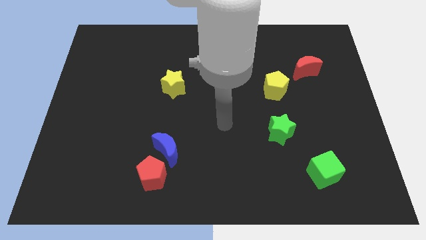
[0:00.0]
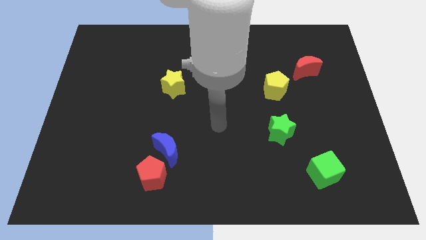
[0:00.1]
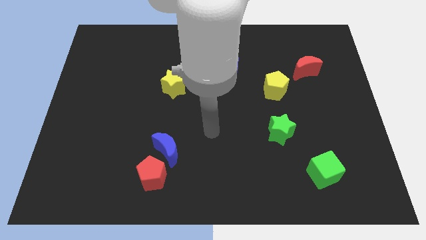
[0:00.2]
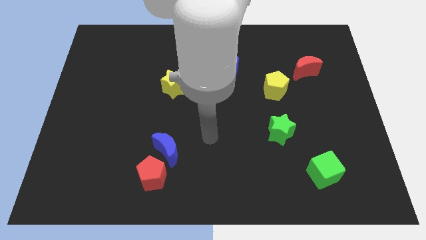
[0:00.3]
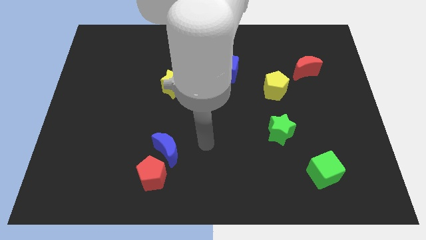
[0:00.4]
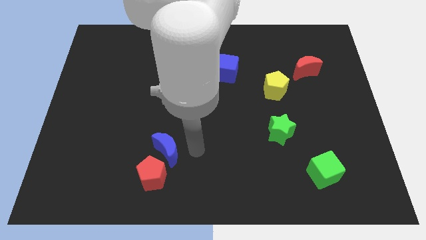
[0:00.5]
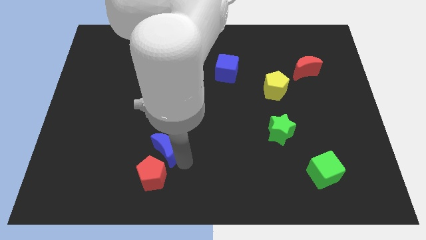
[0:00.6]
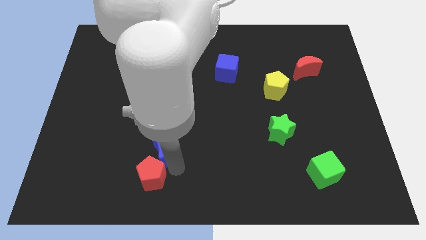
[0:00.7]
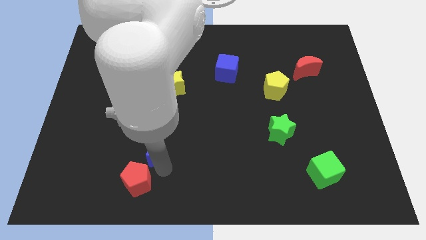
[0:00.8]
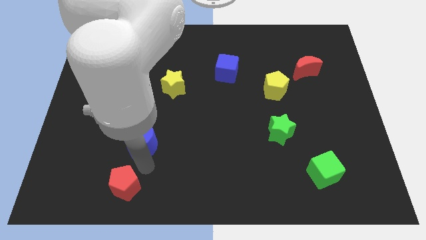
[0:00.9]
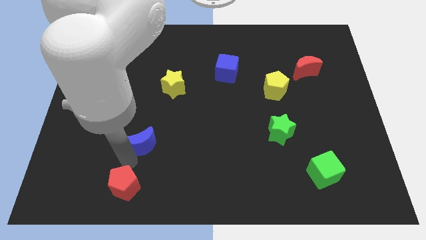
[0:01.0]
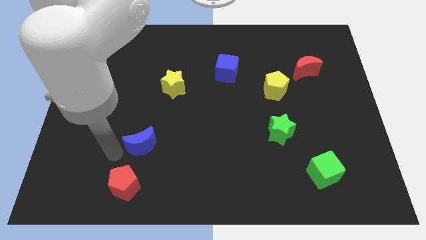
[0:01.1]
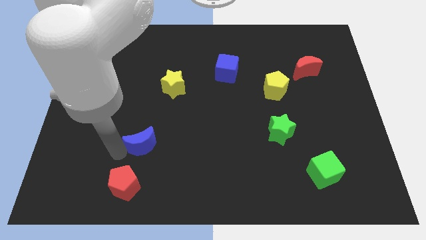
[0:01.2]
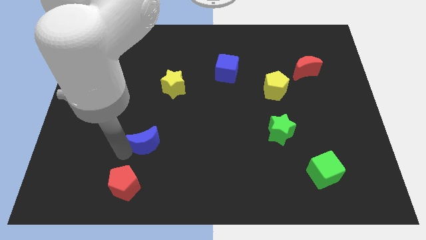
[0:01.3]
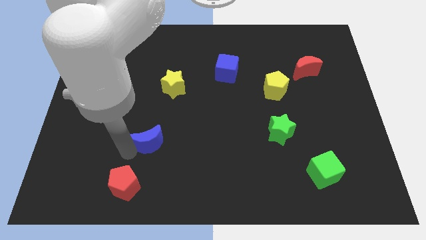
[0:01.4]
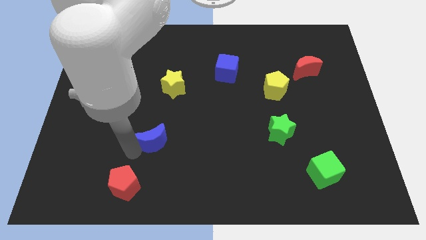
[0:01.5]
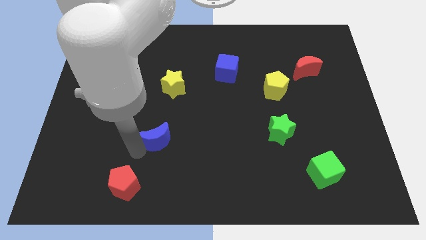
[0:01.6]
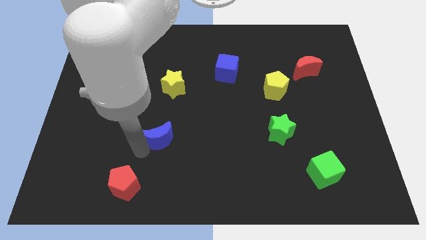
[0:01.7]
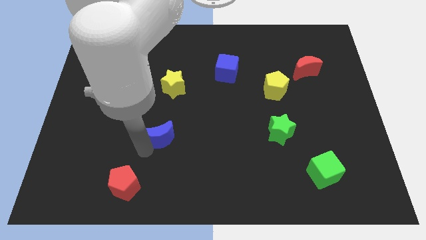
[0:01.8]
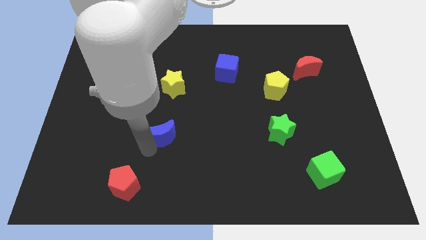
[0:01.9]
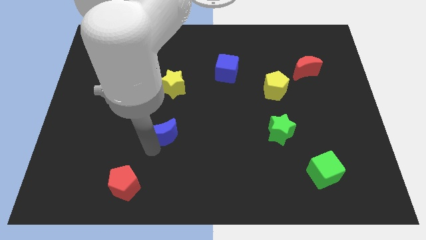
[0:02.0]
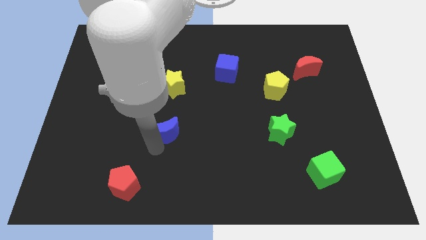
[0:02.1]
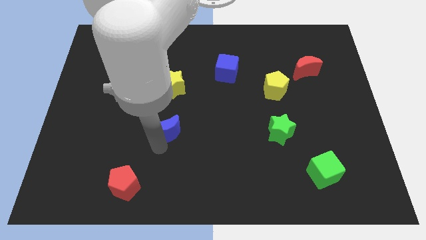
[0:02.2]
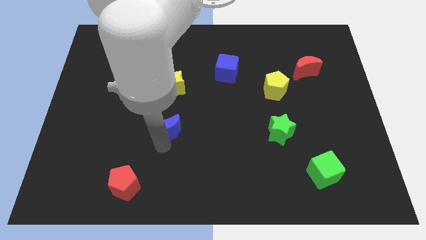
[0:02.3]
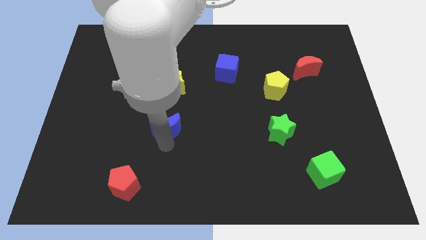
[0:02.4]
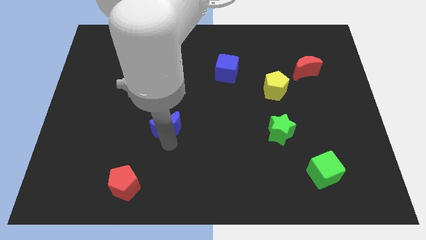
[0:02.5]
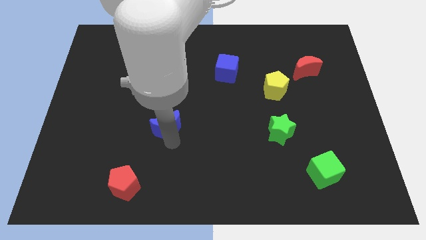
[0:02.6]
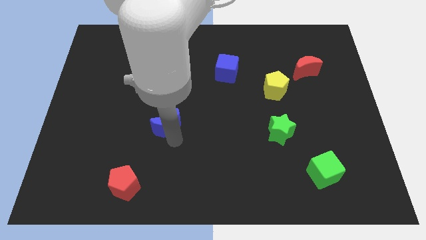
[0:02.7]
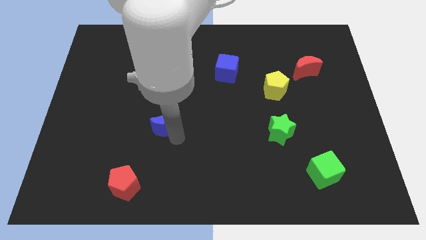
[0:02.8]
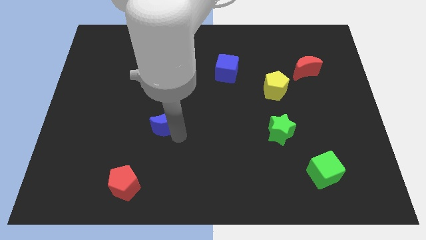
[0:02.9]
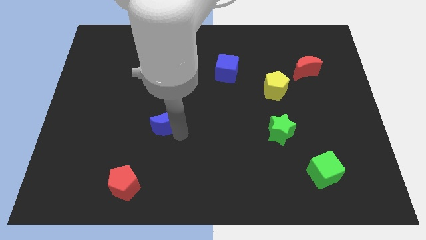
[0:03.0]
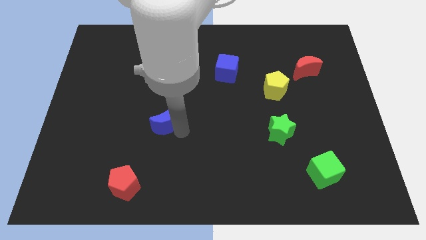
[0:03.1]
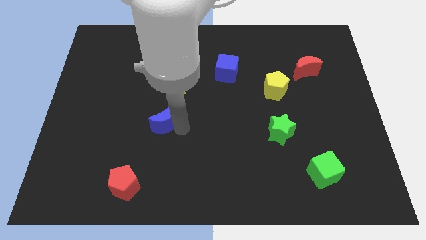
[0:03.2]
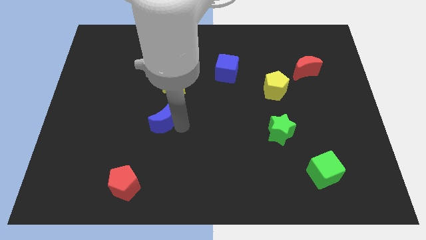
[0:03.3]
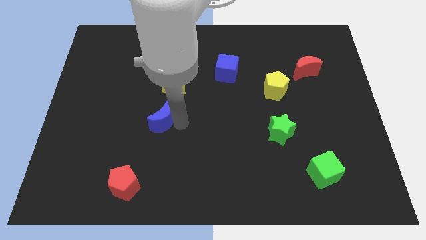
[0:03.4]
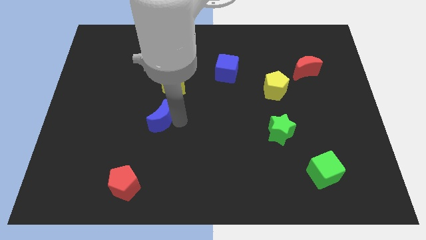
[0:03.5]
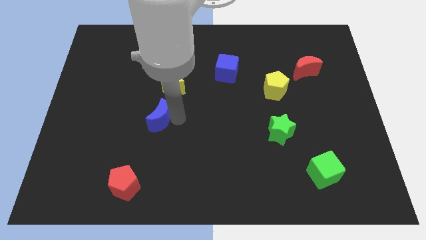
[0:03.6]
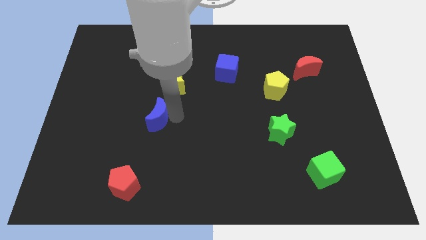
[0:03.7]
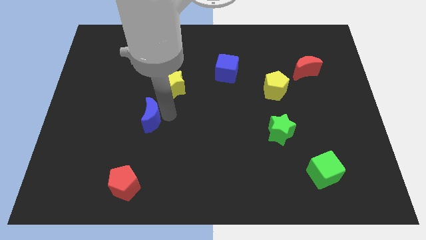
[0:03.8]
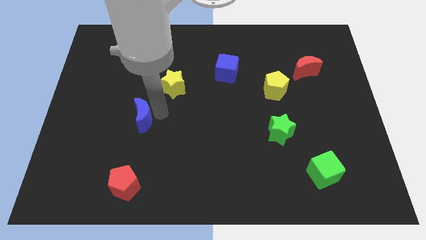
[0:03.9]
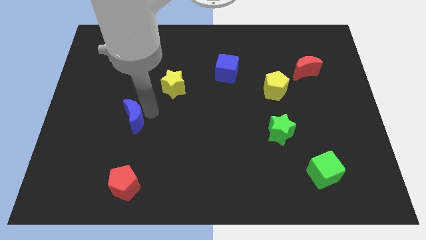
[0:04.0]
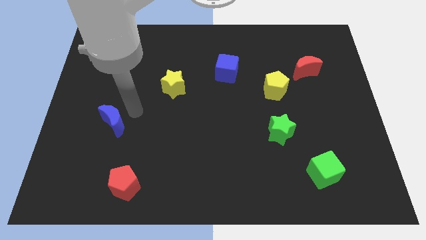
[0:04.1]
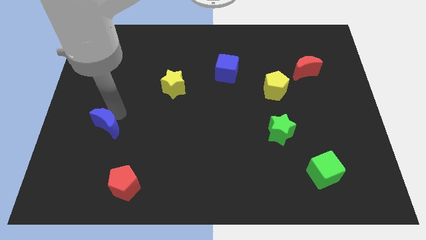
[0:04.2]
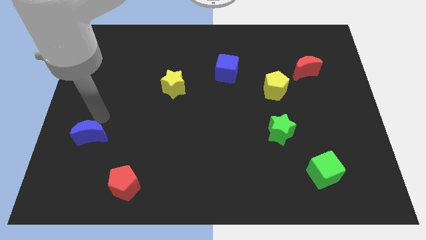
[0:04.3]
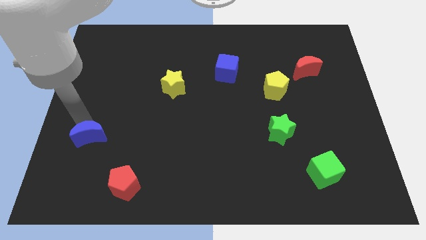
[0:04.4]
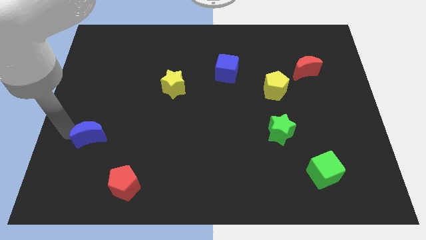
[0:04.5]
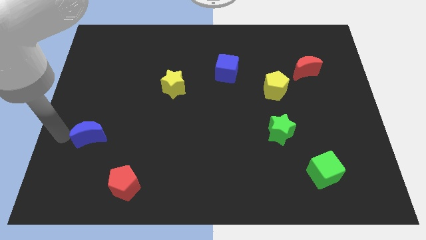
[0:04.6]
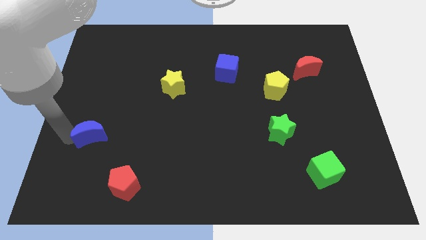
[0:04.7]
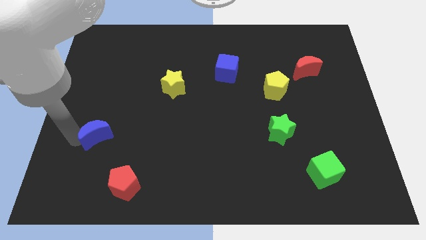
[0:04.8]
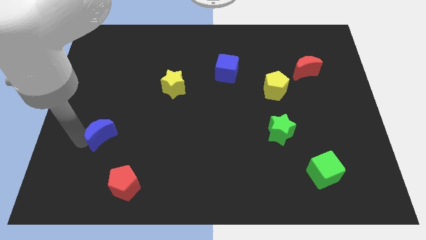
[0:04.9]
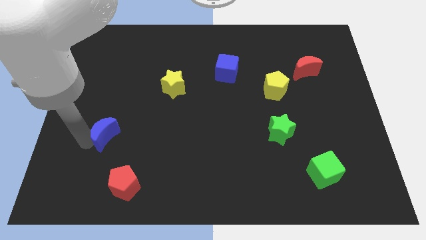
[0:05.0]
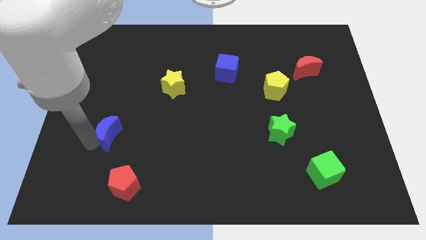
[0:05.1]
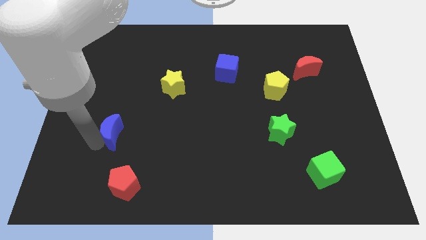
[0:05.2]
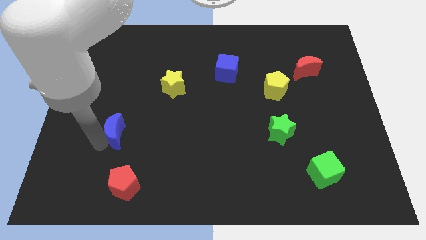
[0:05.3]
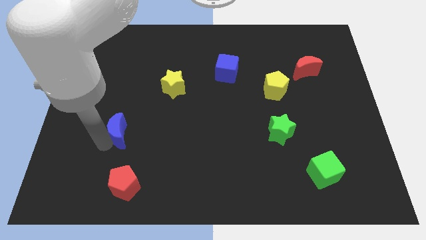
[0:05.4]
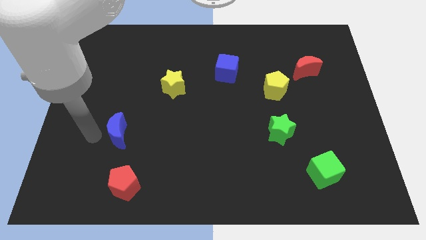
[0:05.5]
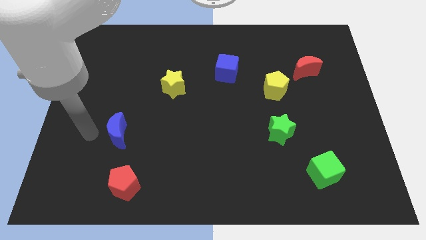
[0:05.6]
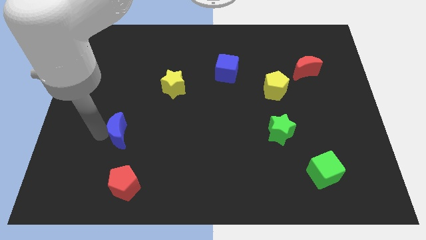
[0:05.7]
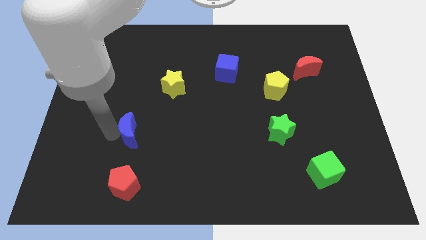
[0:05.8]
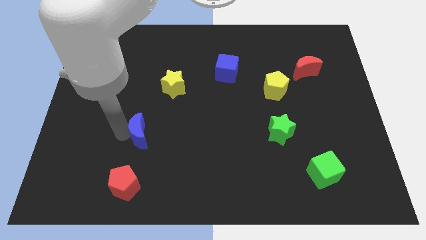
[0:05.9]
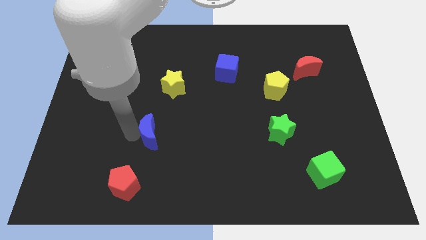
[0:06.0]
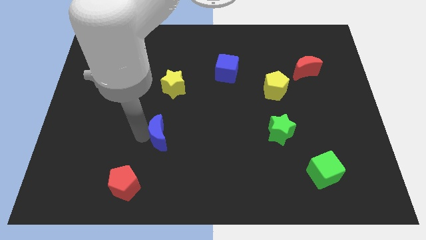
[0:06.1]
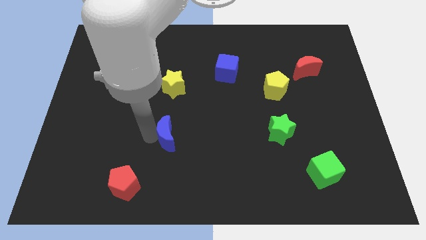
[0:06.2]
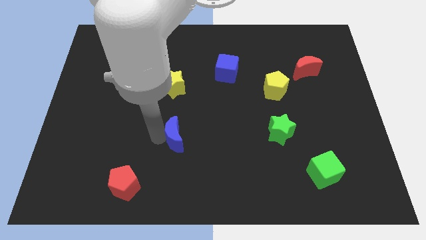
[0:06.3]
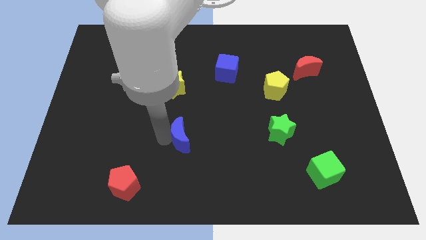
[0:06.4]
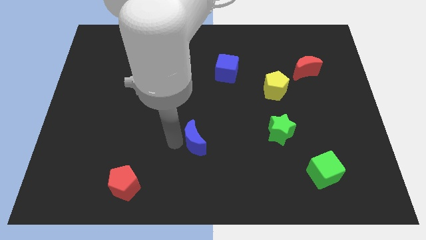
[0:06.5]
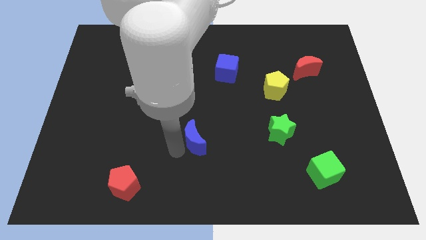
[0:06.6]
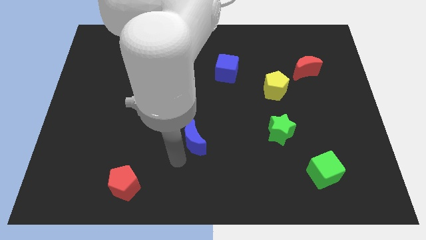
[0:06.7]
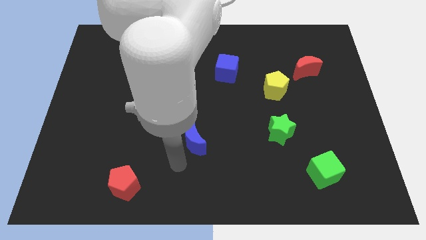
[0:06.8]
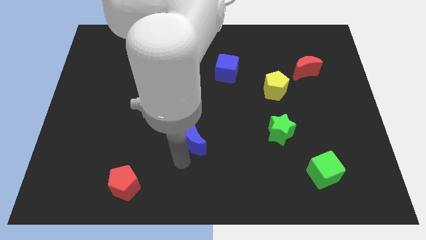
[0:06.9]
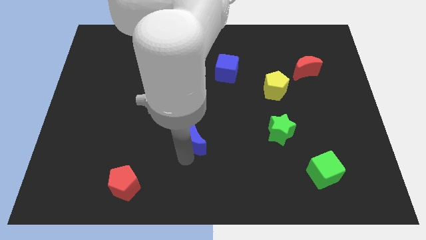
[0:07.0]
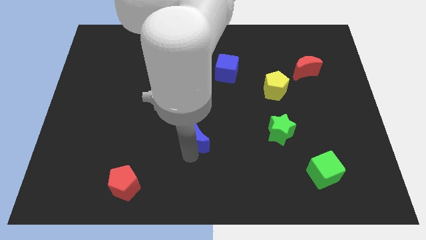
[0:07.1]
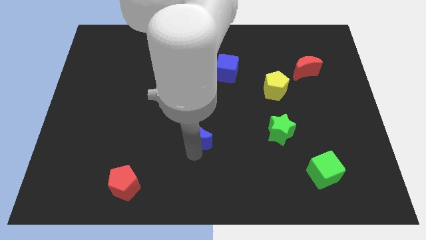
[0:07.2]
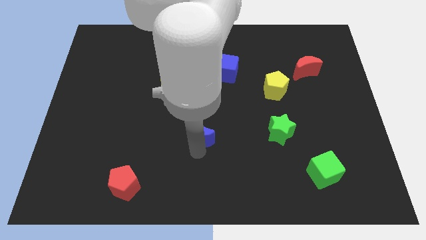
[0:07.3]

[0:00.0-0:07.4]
push the blue moon a little diagonally upwards and to the right

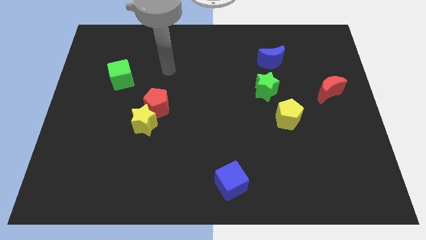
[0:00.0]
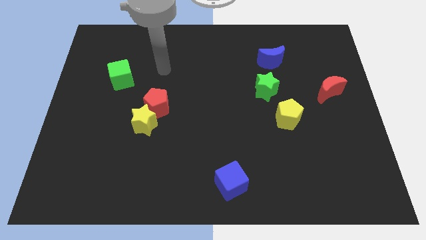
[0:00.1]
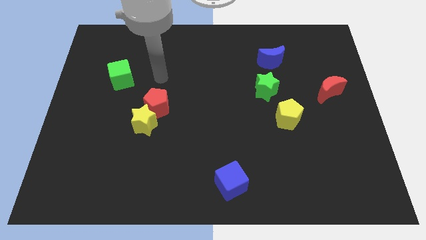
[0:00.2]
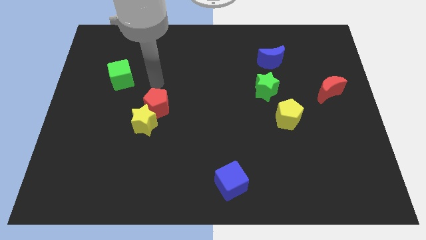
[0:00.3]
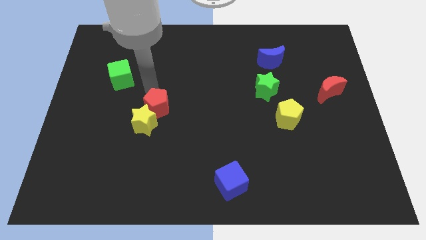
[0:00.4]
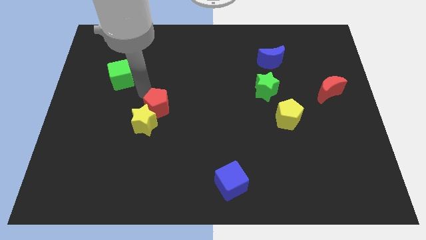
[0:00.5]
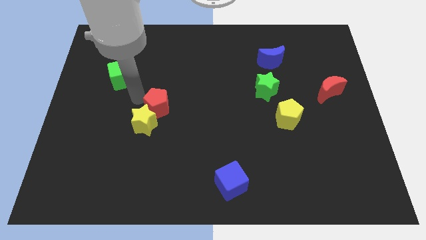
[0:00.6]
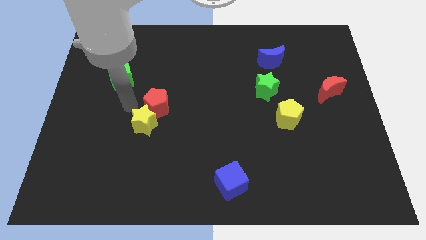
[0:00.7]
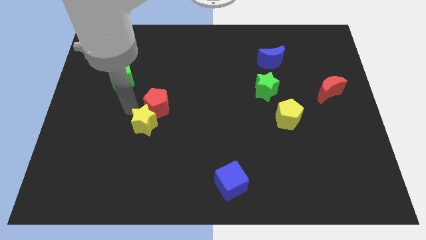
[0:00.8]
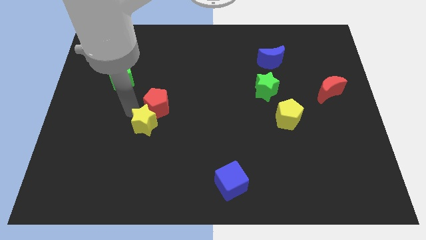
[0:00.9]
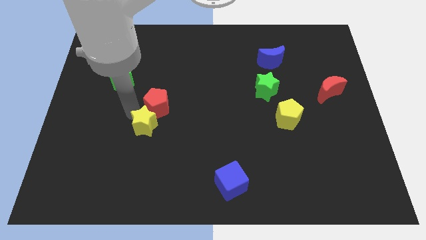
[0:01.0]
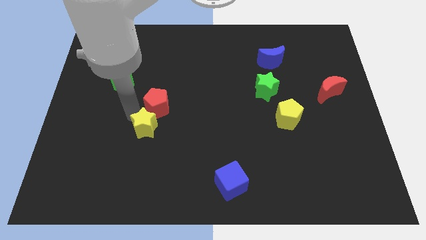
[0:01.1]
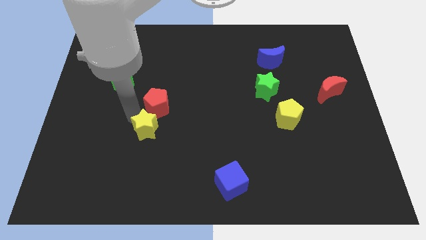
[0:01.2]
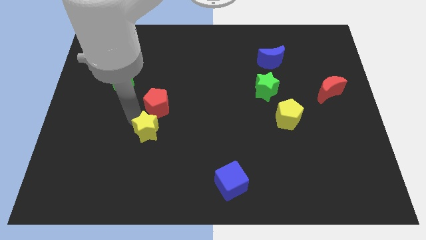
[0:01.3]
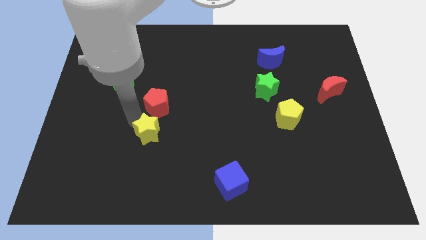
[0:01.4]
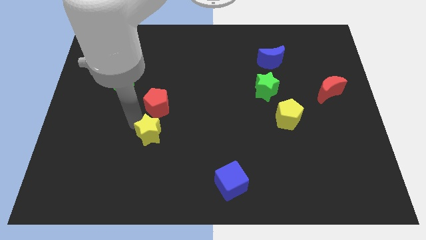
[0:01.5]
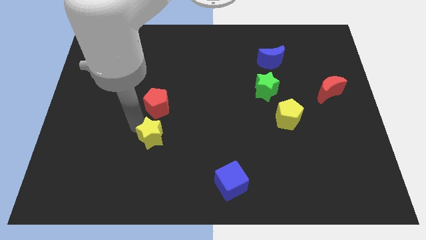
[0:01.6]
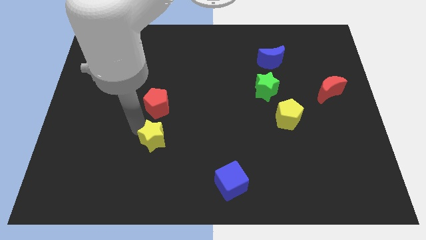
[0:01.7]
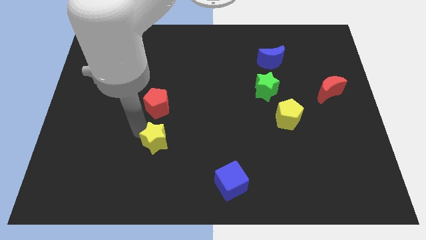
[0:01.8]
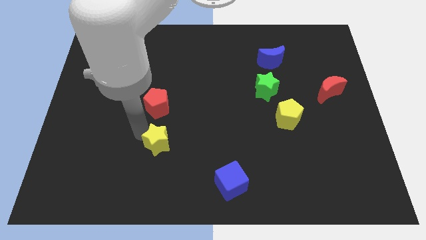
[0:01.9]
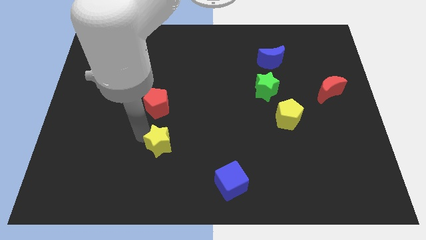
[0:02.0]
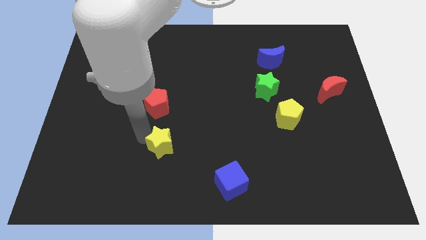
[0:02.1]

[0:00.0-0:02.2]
slightly move the yellow star diagonally downwards and to the right
